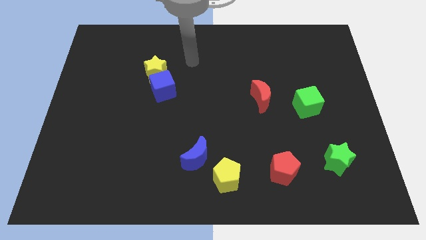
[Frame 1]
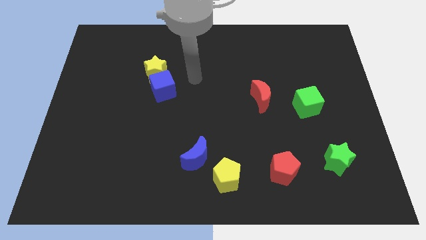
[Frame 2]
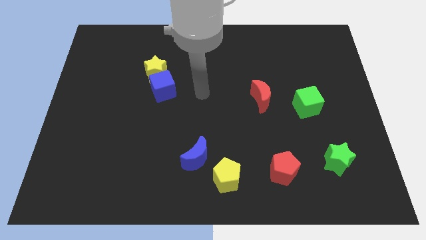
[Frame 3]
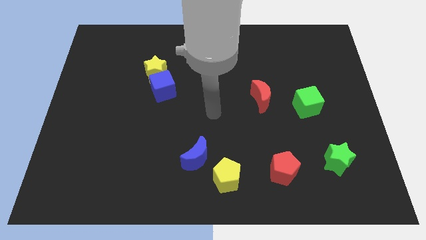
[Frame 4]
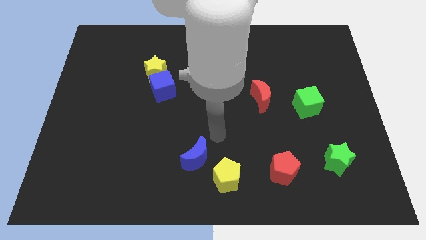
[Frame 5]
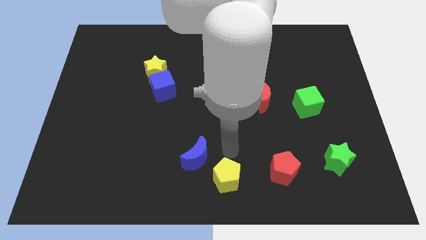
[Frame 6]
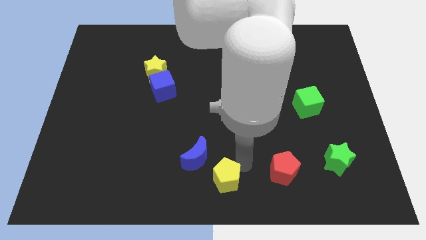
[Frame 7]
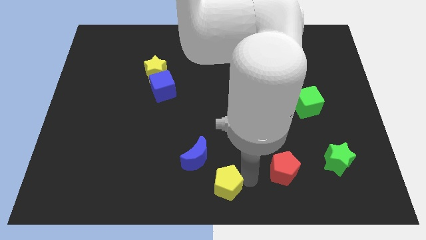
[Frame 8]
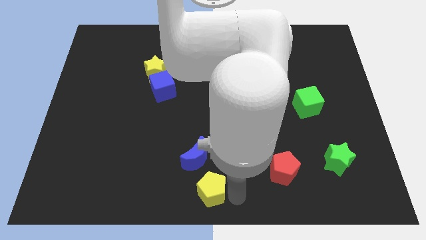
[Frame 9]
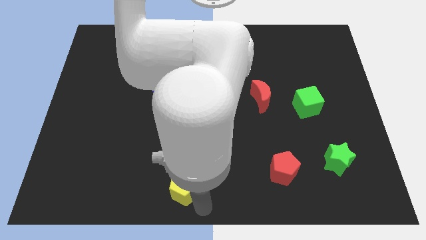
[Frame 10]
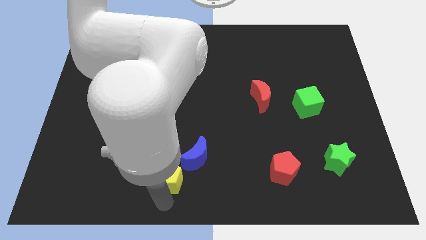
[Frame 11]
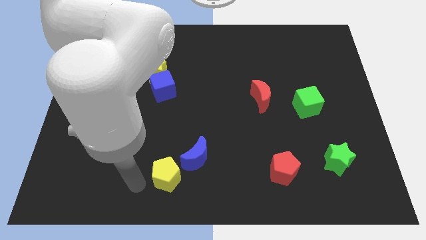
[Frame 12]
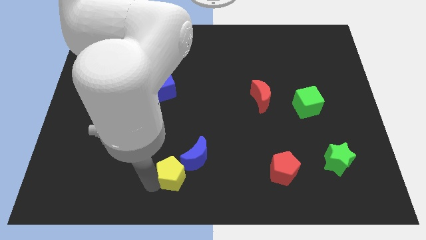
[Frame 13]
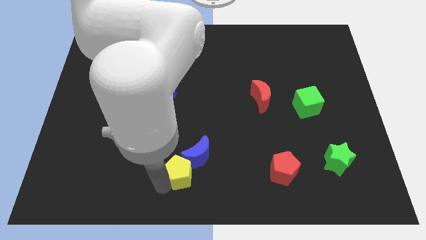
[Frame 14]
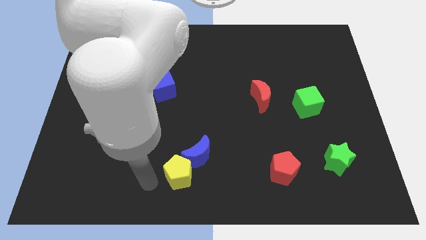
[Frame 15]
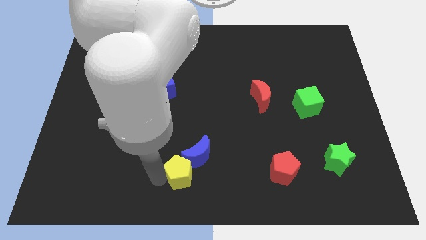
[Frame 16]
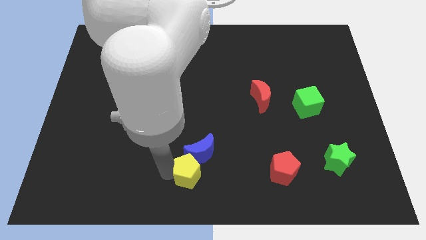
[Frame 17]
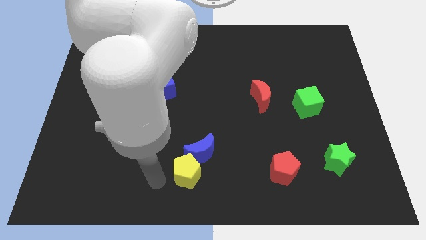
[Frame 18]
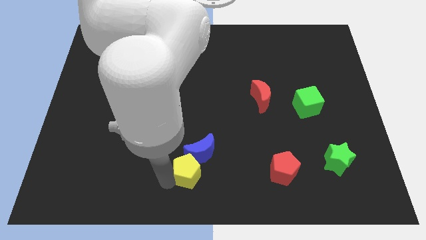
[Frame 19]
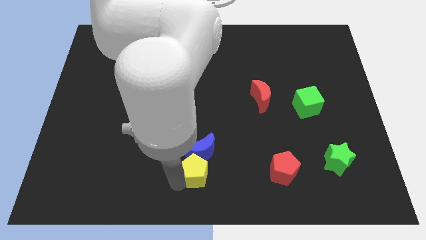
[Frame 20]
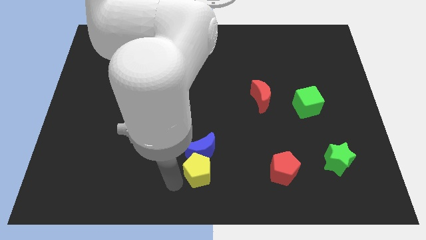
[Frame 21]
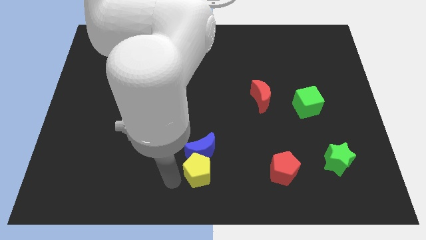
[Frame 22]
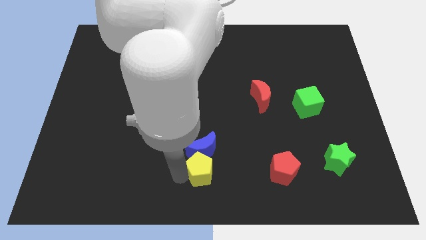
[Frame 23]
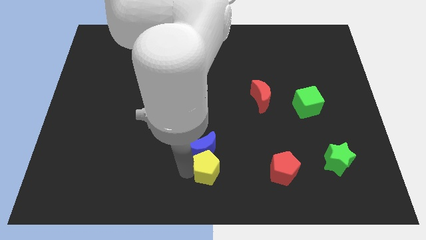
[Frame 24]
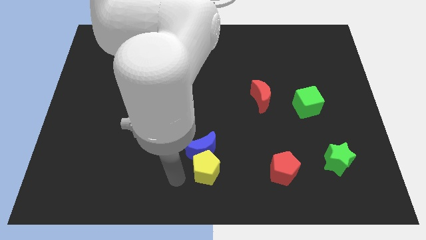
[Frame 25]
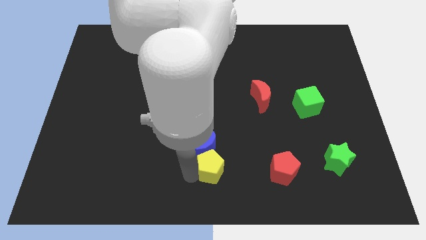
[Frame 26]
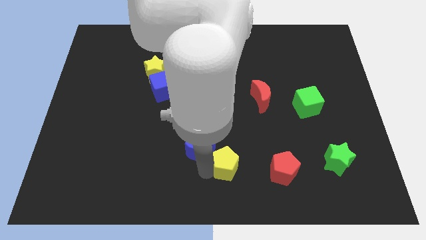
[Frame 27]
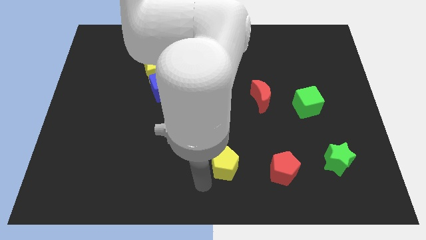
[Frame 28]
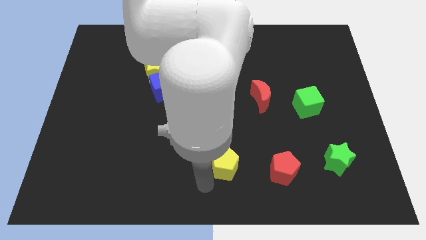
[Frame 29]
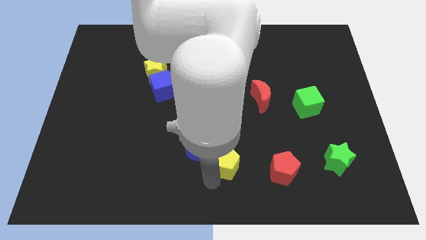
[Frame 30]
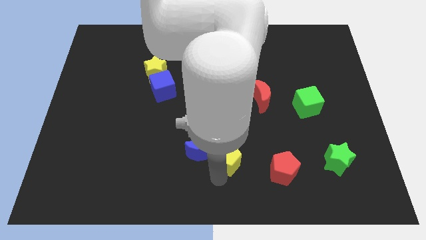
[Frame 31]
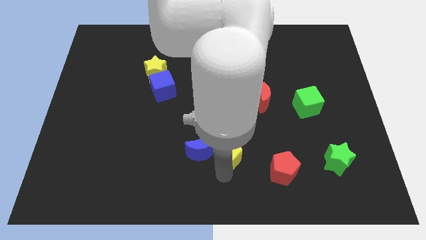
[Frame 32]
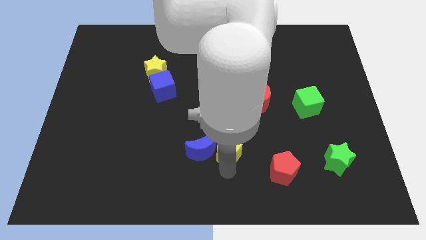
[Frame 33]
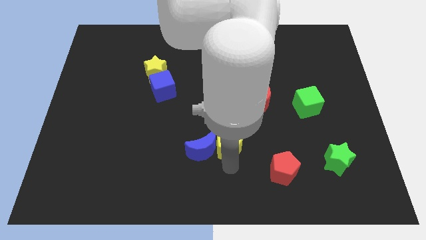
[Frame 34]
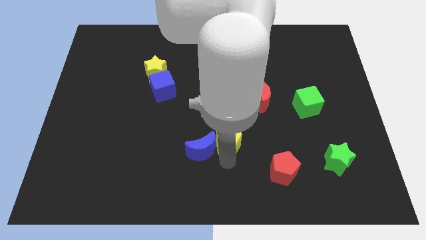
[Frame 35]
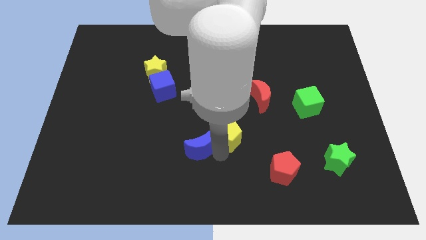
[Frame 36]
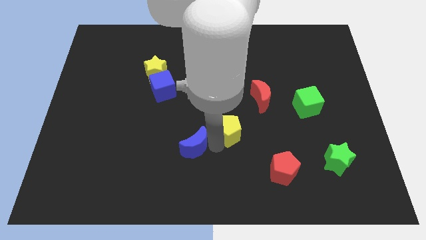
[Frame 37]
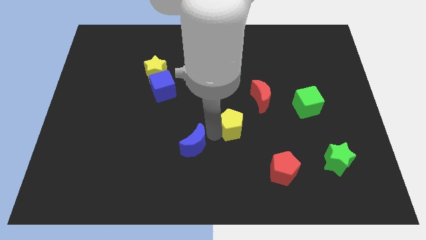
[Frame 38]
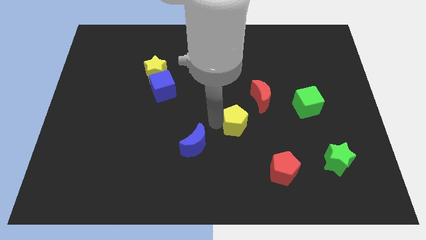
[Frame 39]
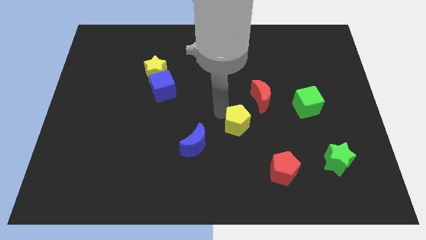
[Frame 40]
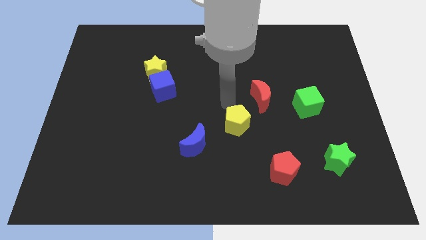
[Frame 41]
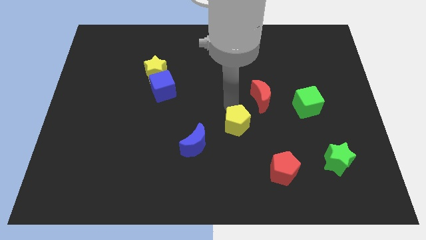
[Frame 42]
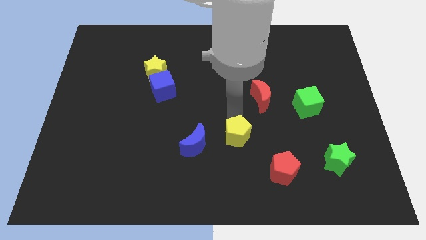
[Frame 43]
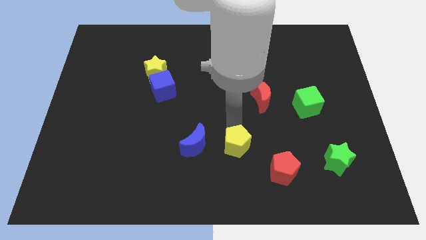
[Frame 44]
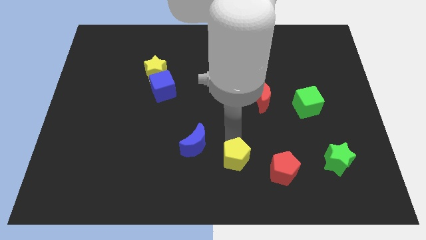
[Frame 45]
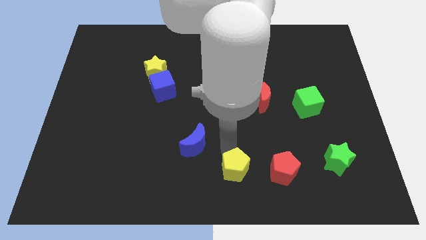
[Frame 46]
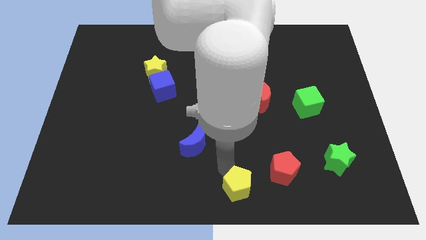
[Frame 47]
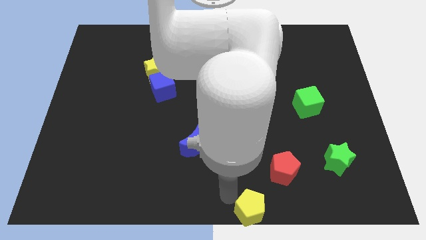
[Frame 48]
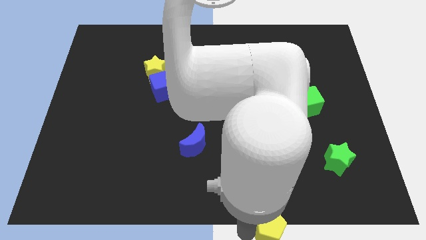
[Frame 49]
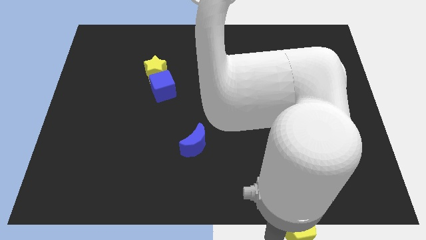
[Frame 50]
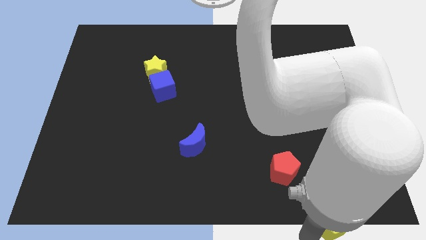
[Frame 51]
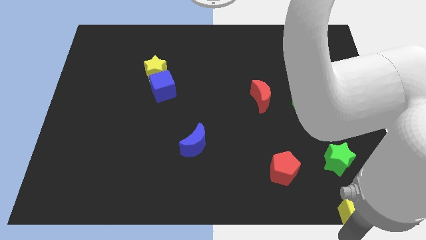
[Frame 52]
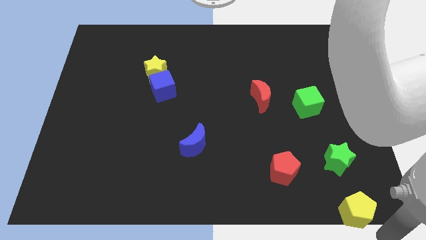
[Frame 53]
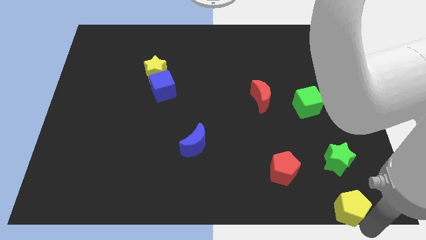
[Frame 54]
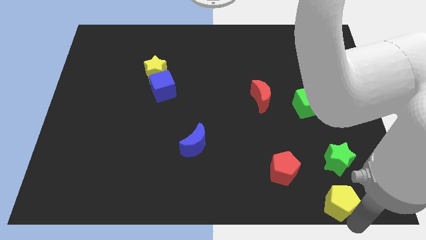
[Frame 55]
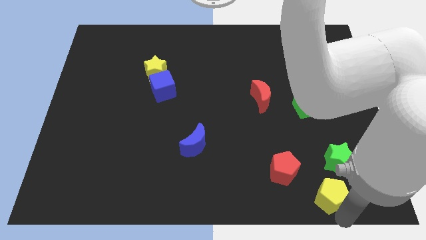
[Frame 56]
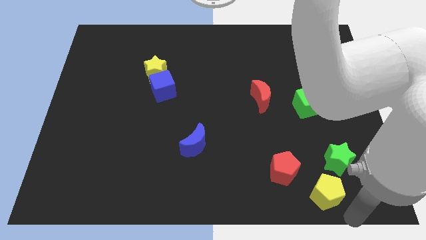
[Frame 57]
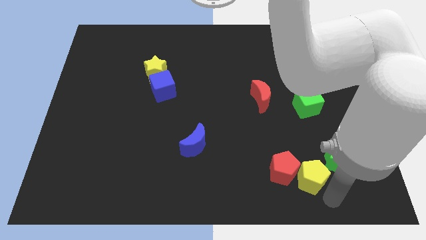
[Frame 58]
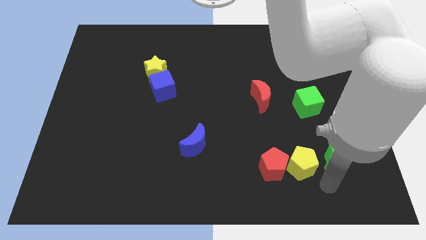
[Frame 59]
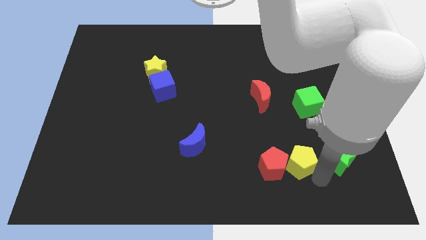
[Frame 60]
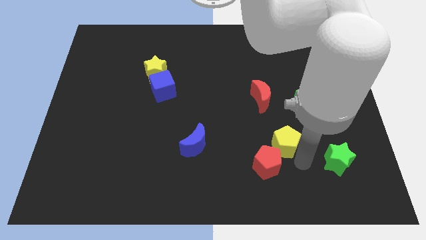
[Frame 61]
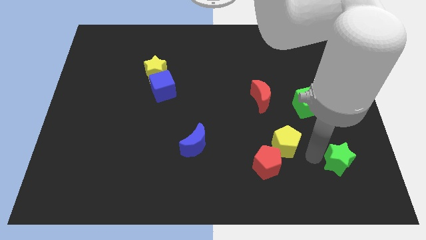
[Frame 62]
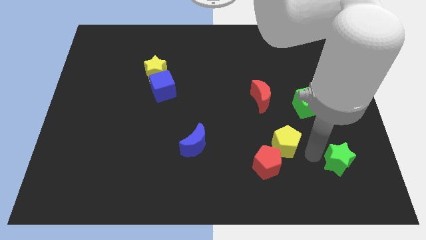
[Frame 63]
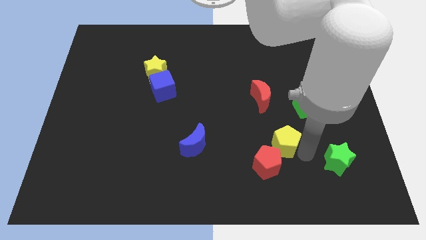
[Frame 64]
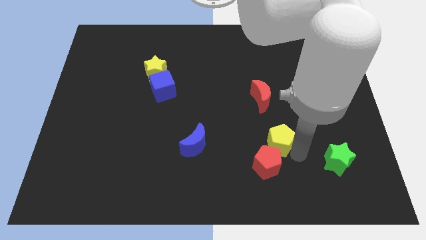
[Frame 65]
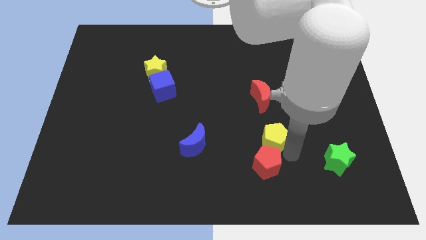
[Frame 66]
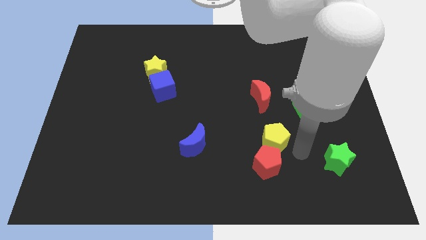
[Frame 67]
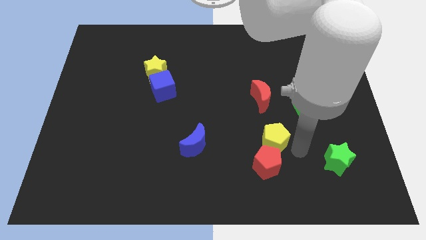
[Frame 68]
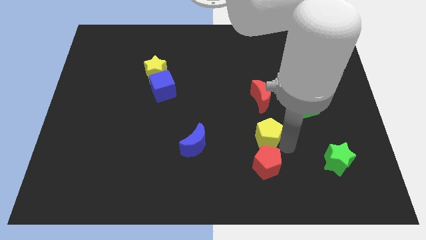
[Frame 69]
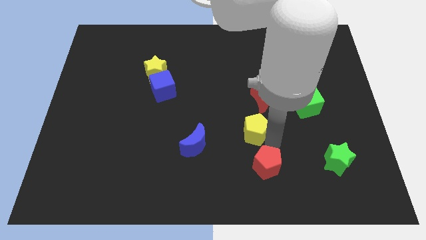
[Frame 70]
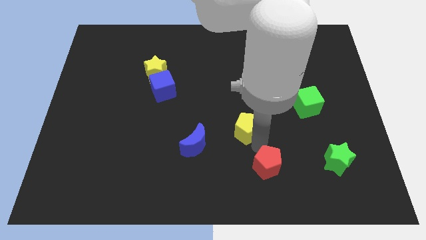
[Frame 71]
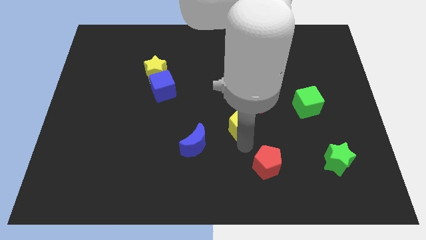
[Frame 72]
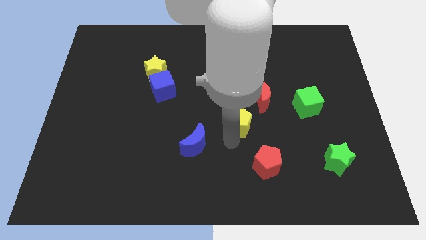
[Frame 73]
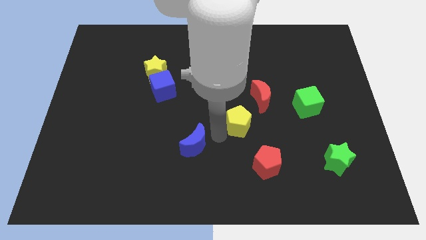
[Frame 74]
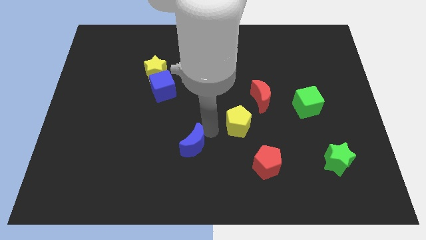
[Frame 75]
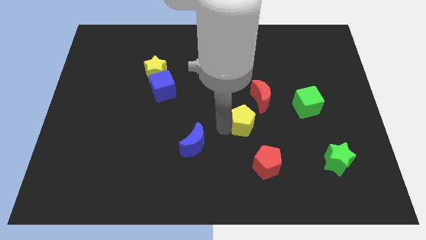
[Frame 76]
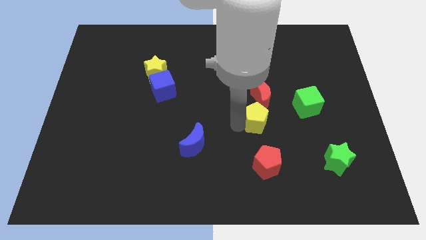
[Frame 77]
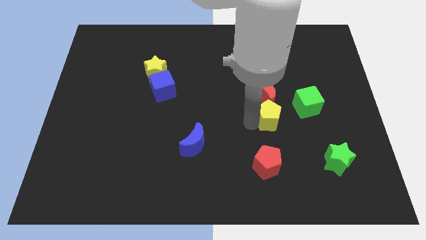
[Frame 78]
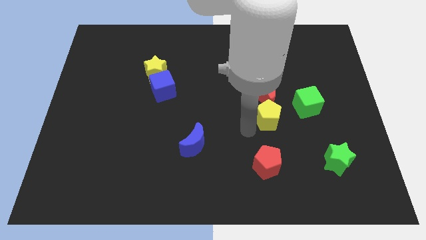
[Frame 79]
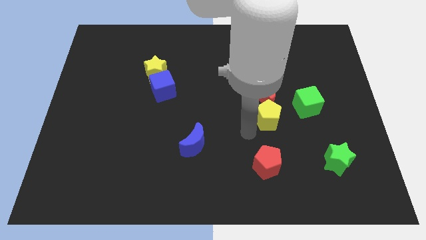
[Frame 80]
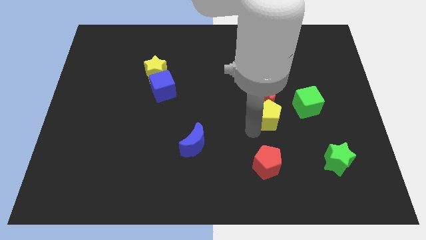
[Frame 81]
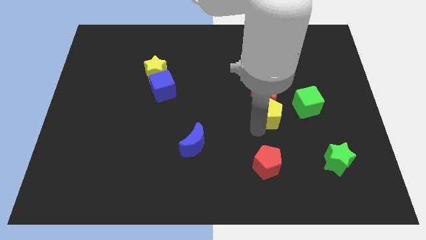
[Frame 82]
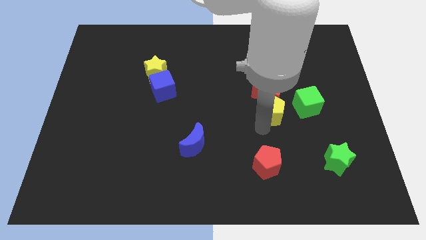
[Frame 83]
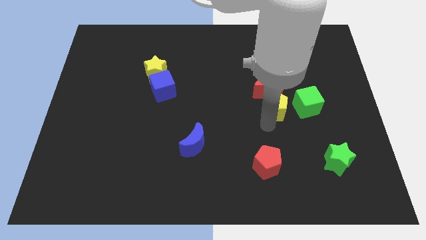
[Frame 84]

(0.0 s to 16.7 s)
push the yellow pentagon up and then right
